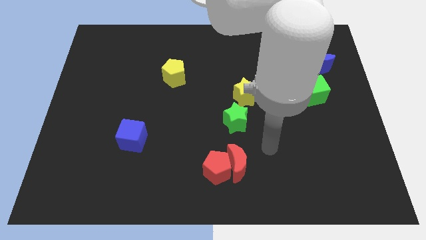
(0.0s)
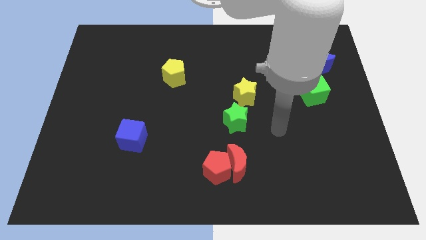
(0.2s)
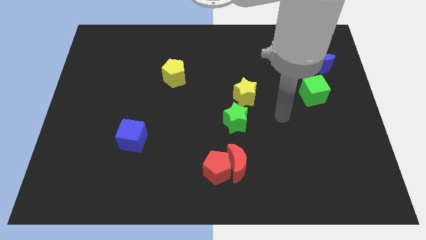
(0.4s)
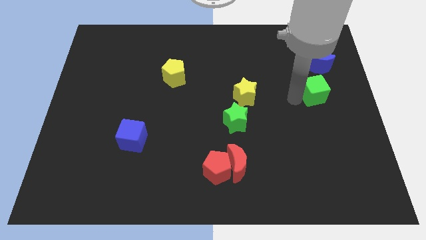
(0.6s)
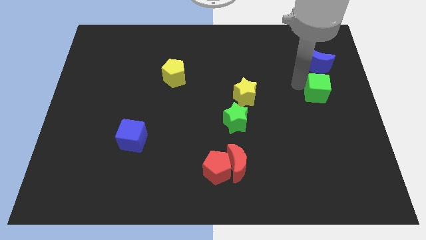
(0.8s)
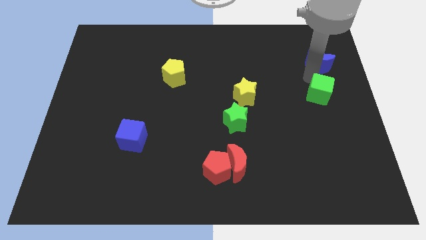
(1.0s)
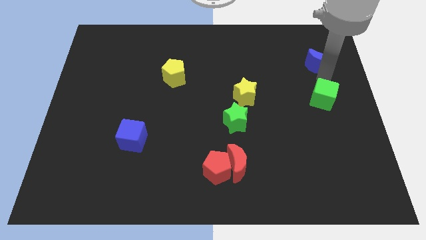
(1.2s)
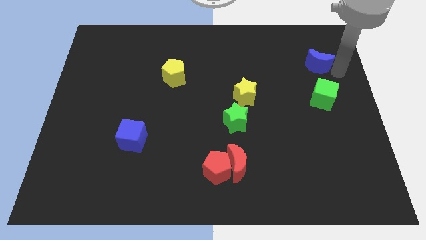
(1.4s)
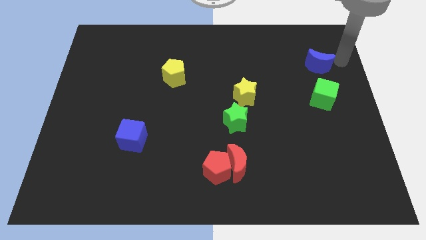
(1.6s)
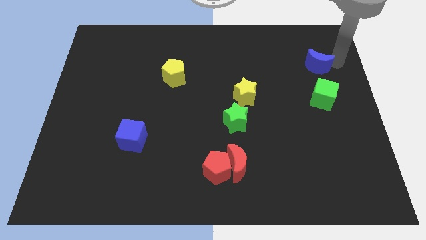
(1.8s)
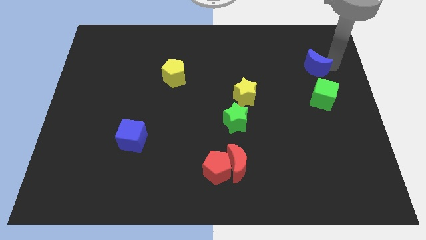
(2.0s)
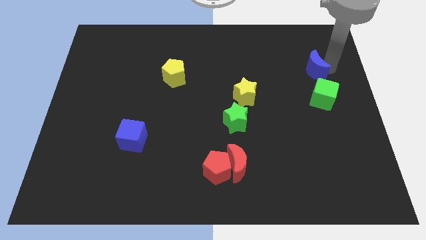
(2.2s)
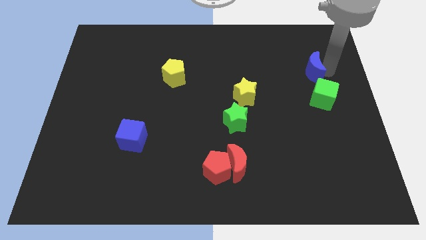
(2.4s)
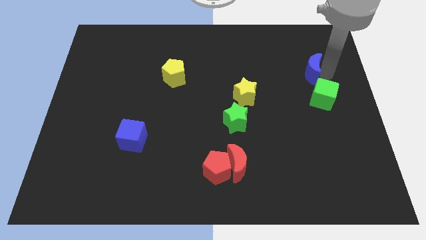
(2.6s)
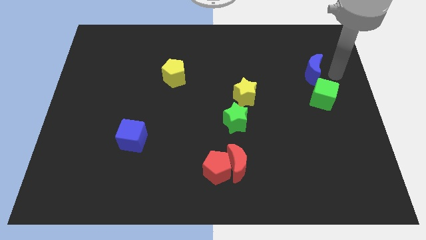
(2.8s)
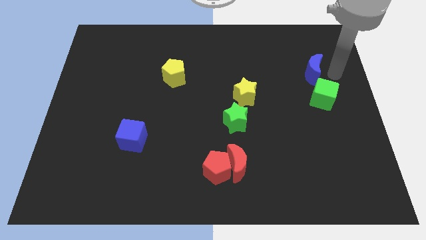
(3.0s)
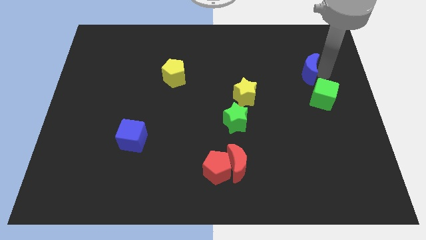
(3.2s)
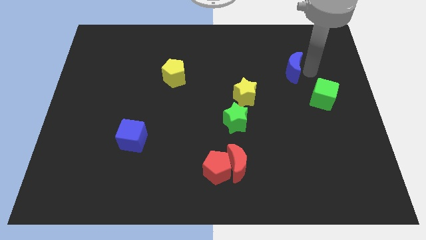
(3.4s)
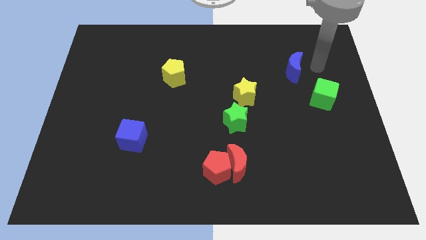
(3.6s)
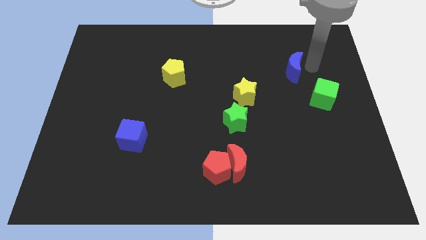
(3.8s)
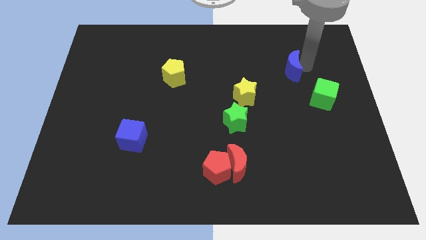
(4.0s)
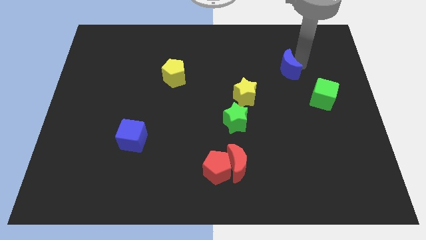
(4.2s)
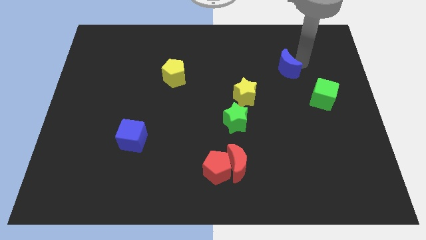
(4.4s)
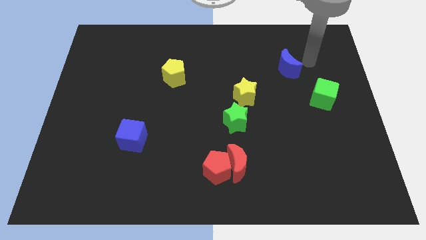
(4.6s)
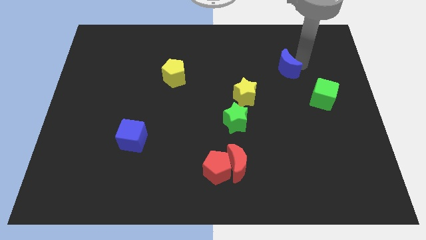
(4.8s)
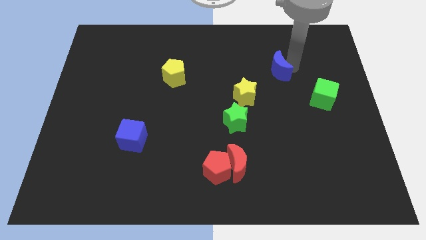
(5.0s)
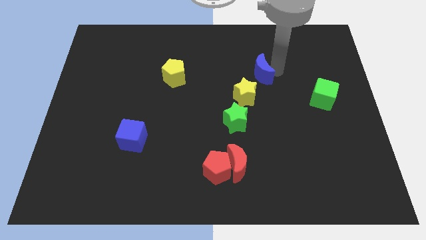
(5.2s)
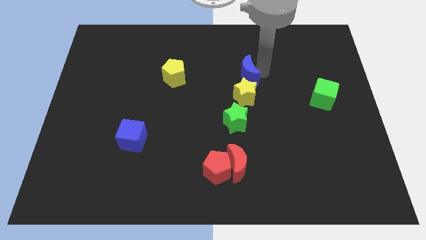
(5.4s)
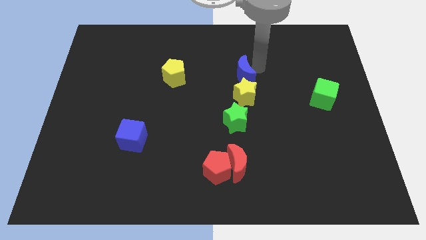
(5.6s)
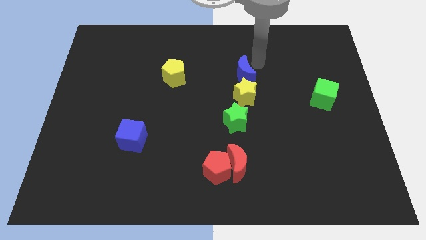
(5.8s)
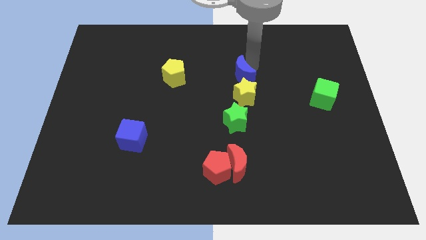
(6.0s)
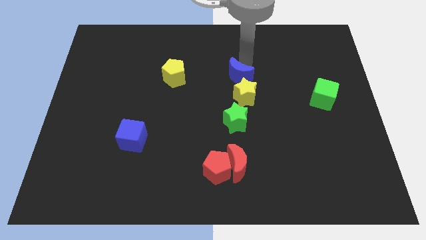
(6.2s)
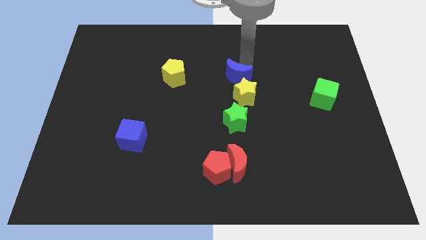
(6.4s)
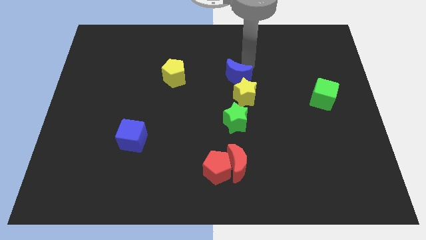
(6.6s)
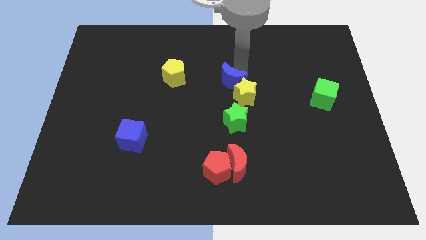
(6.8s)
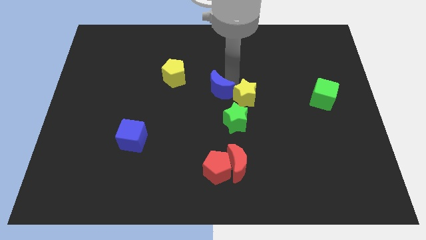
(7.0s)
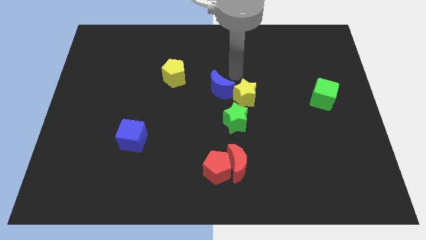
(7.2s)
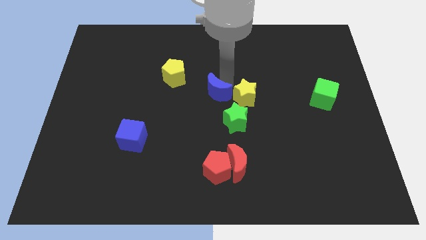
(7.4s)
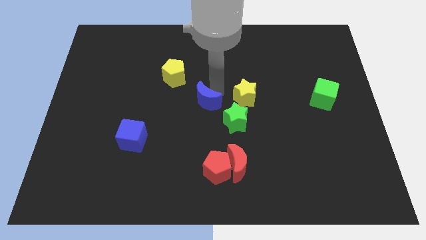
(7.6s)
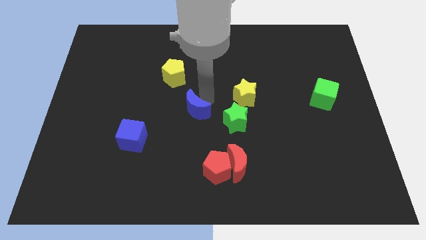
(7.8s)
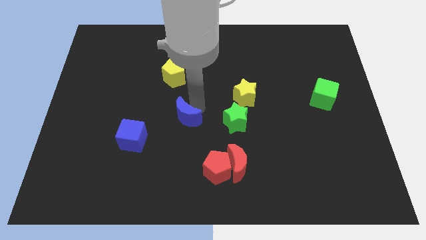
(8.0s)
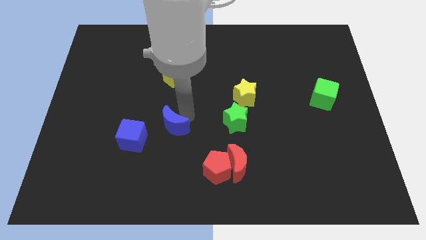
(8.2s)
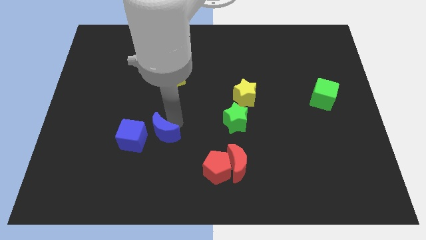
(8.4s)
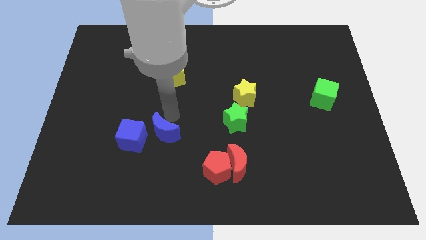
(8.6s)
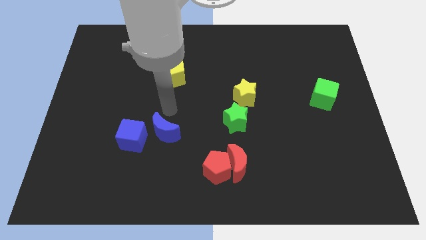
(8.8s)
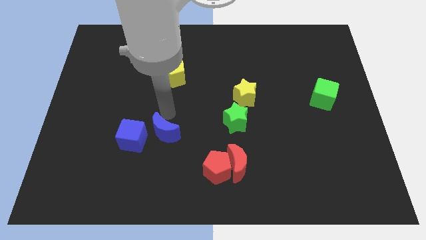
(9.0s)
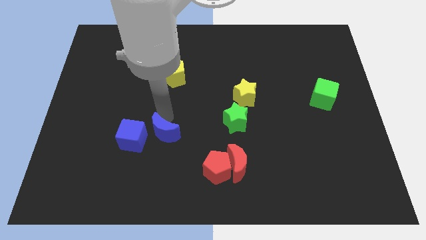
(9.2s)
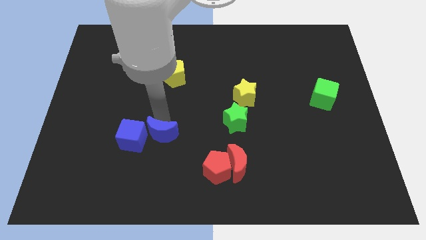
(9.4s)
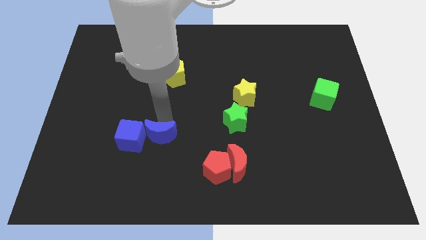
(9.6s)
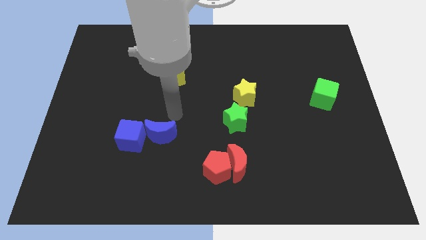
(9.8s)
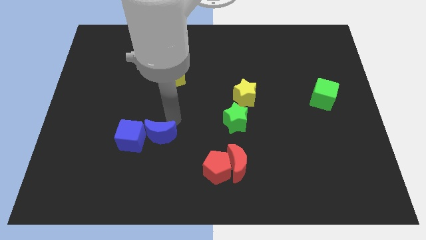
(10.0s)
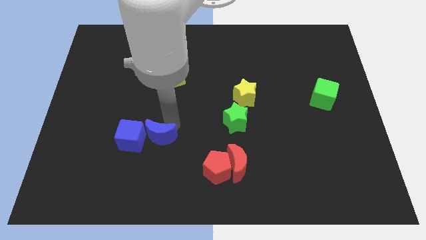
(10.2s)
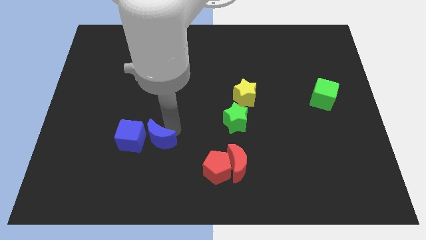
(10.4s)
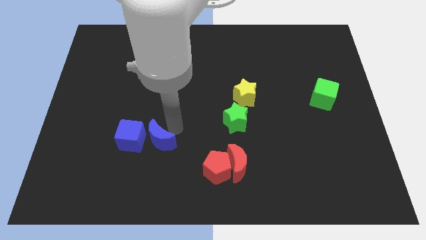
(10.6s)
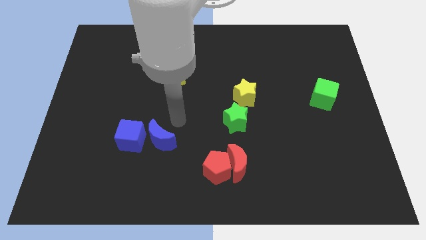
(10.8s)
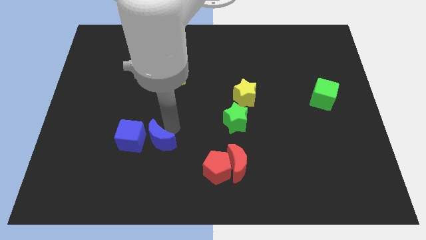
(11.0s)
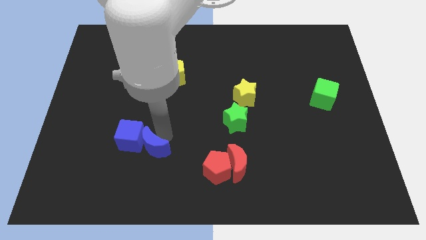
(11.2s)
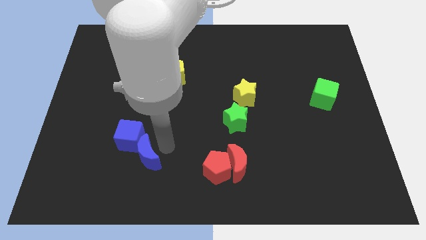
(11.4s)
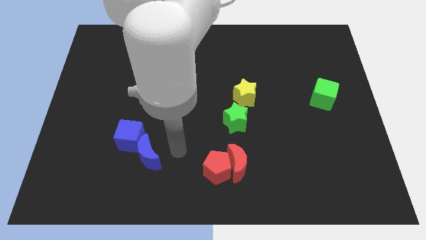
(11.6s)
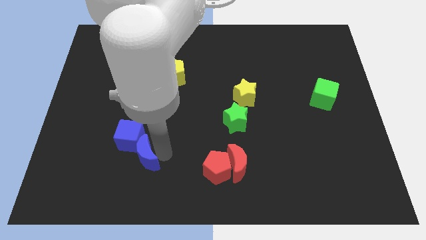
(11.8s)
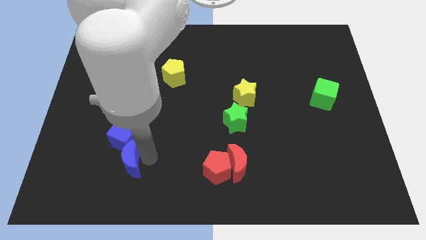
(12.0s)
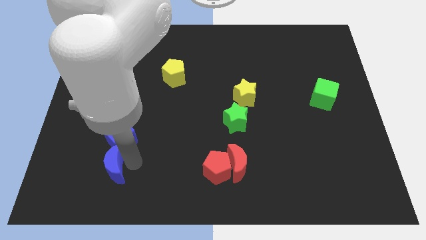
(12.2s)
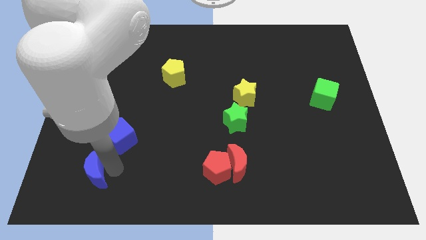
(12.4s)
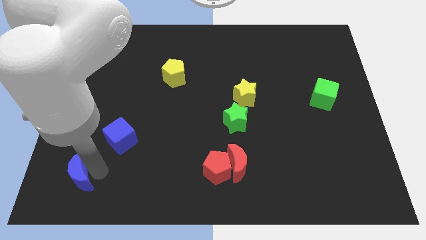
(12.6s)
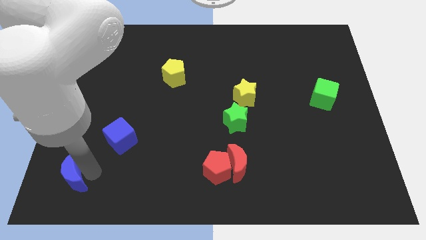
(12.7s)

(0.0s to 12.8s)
put the blue moon to the bottom left of the board
